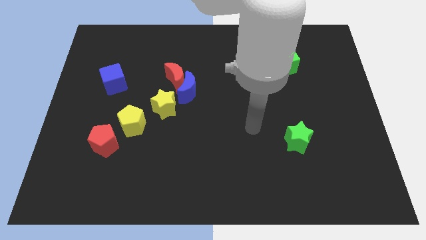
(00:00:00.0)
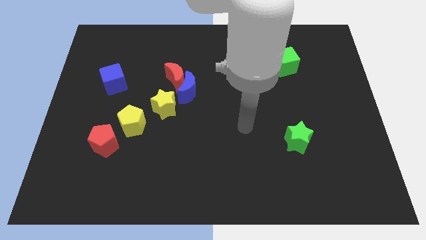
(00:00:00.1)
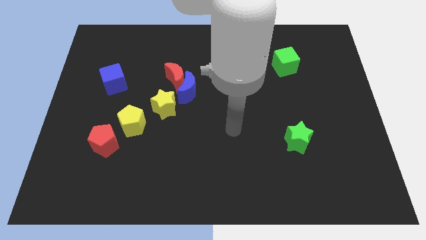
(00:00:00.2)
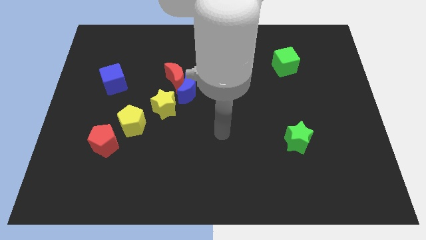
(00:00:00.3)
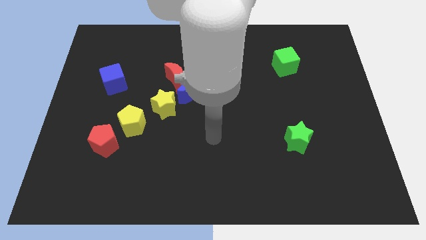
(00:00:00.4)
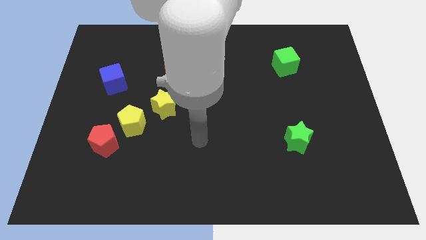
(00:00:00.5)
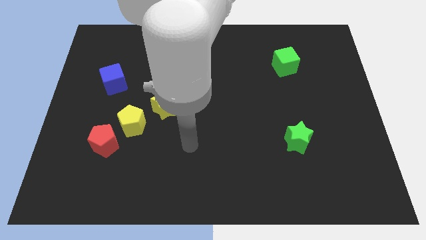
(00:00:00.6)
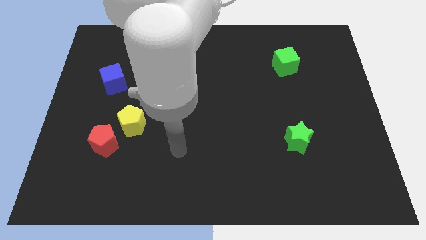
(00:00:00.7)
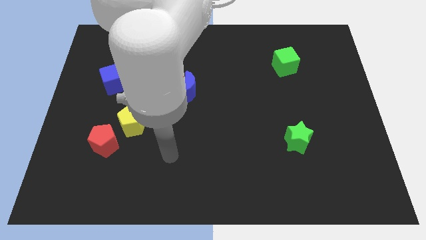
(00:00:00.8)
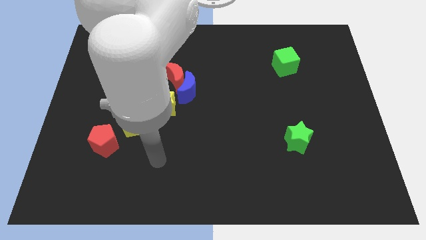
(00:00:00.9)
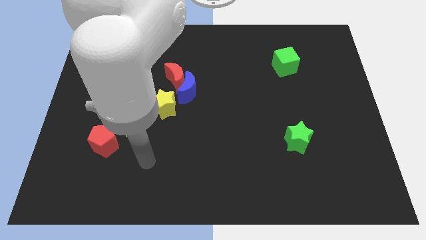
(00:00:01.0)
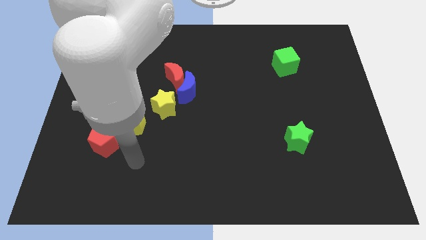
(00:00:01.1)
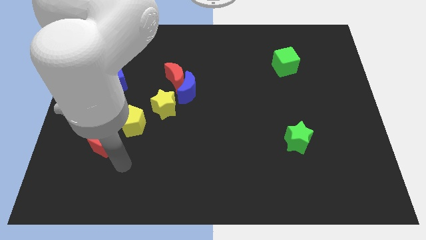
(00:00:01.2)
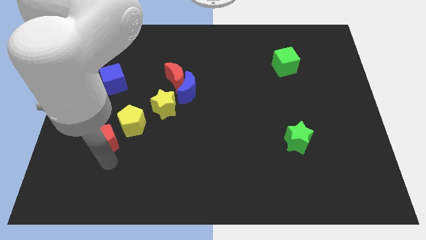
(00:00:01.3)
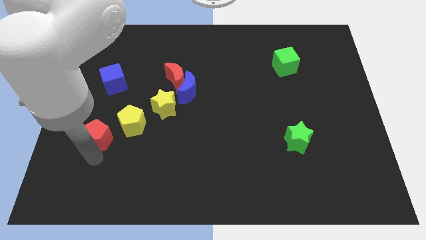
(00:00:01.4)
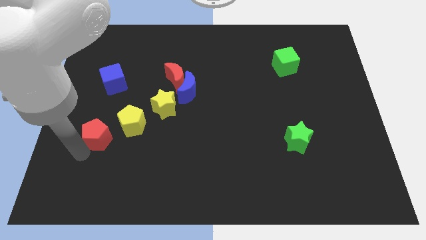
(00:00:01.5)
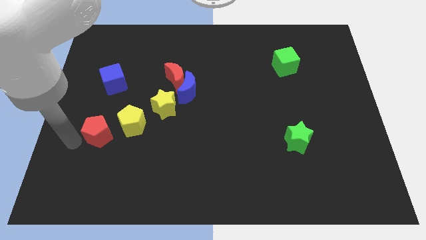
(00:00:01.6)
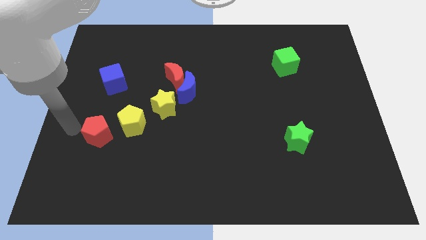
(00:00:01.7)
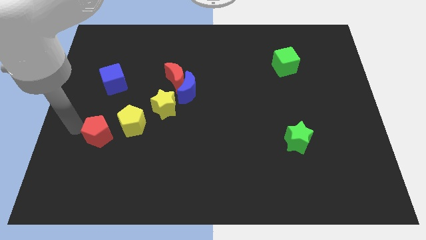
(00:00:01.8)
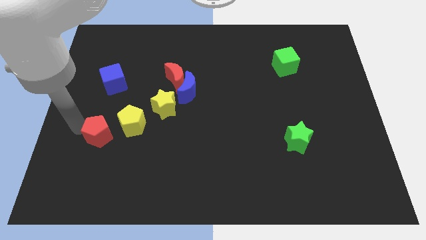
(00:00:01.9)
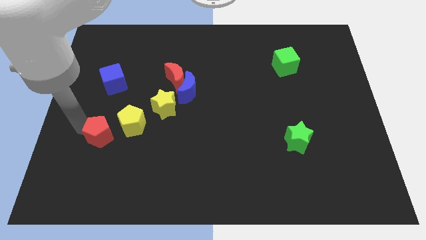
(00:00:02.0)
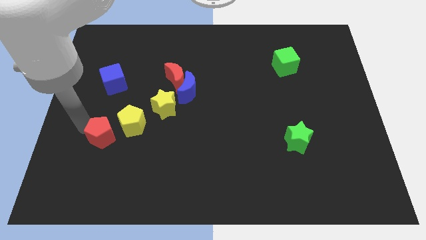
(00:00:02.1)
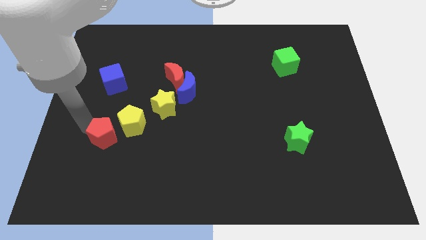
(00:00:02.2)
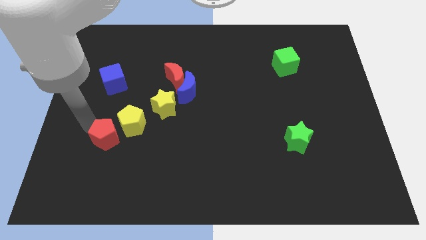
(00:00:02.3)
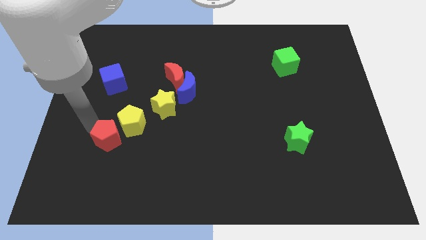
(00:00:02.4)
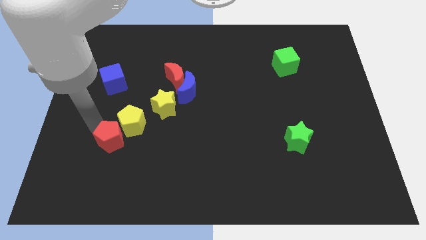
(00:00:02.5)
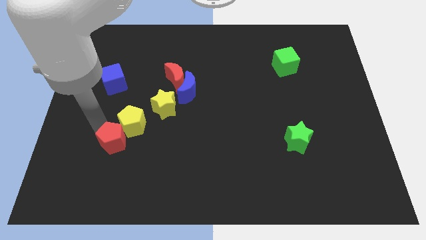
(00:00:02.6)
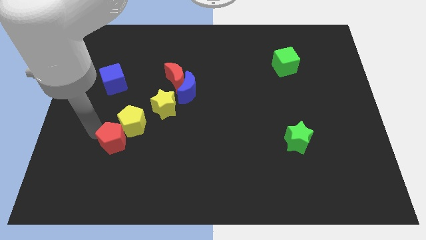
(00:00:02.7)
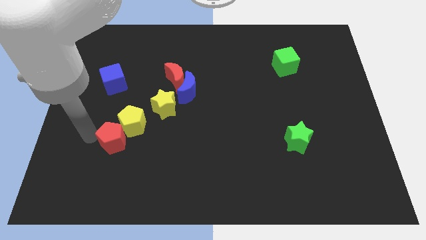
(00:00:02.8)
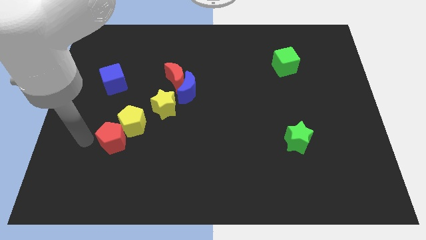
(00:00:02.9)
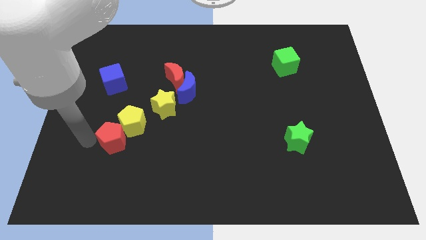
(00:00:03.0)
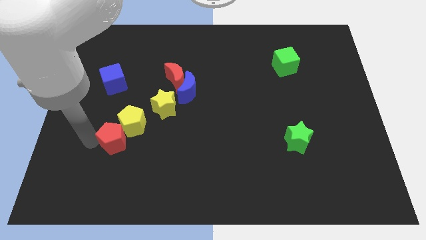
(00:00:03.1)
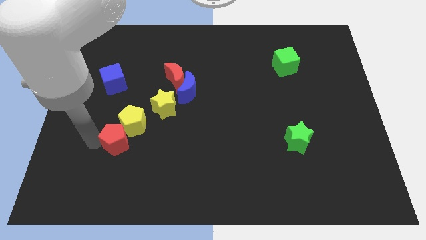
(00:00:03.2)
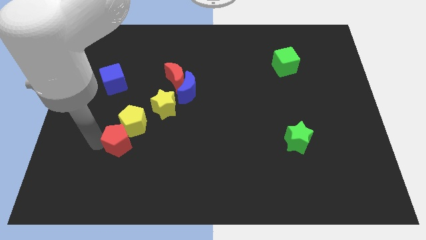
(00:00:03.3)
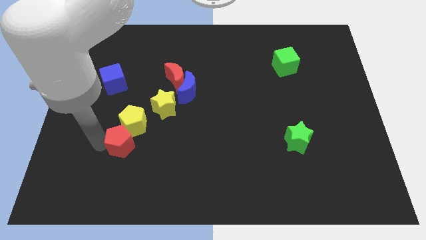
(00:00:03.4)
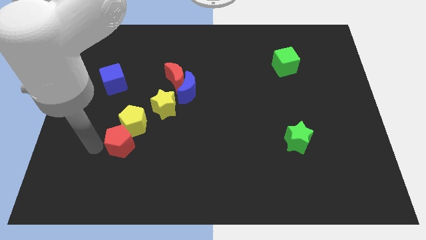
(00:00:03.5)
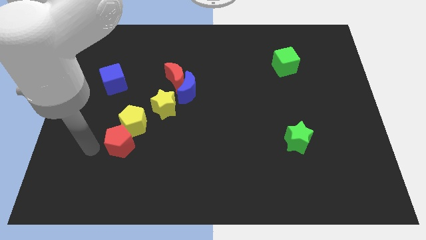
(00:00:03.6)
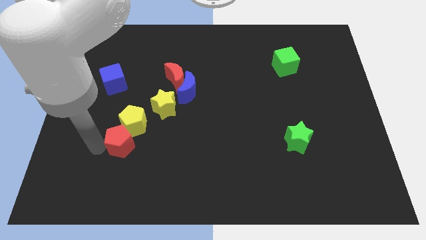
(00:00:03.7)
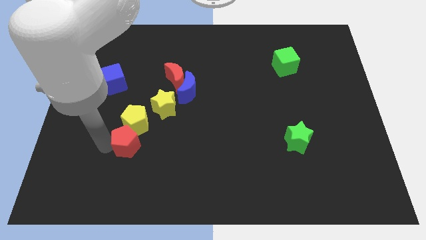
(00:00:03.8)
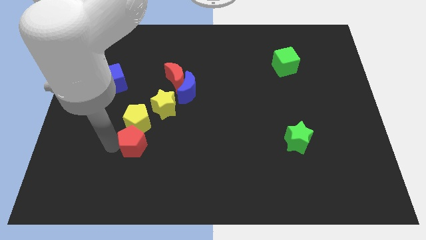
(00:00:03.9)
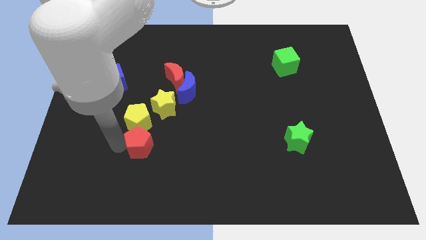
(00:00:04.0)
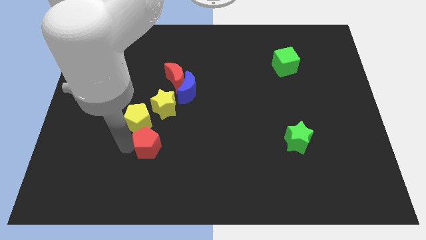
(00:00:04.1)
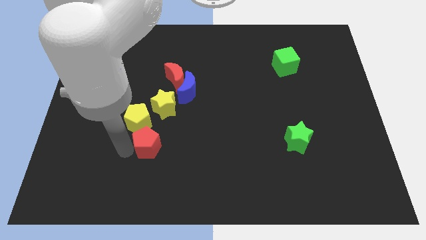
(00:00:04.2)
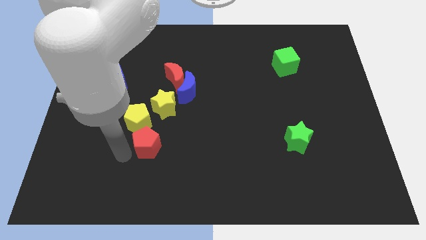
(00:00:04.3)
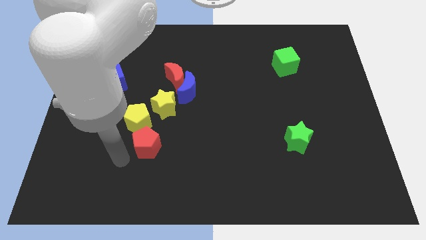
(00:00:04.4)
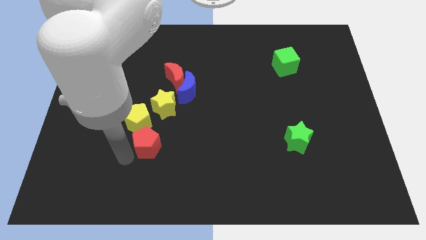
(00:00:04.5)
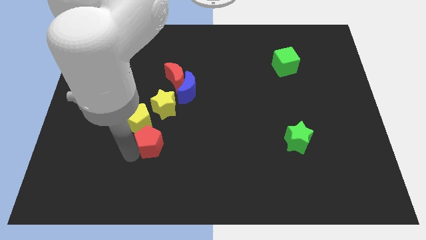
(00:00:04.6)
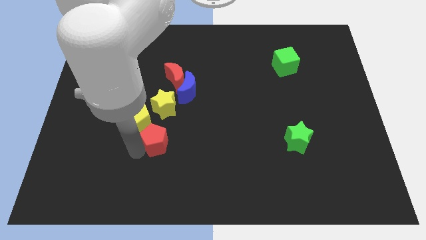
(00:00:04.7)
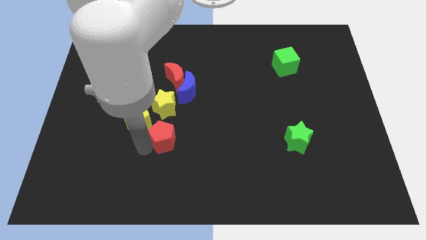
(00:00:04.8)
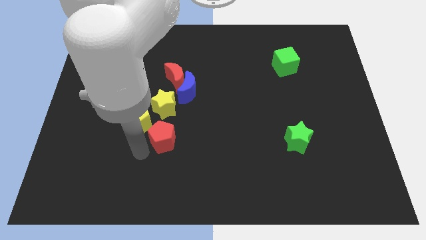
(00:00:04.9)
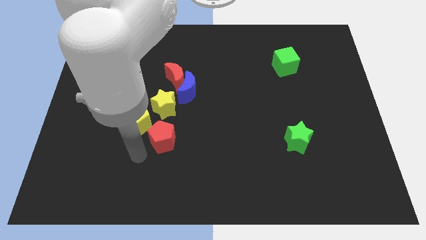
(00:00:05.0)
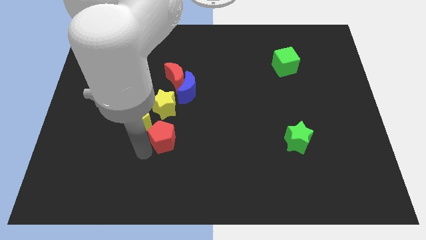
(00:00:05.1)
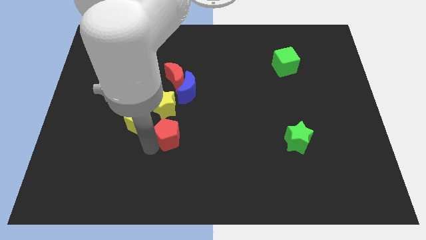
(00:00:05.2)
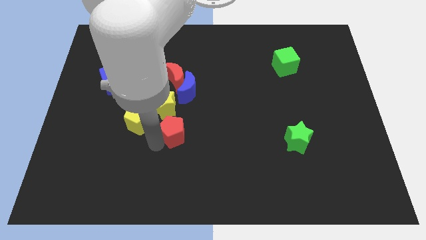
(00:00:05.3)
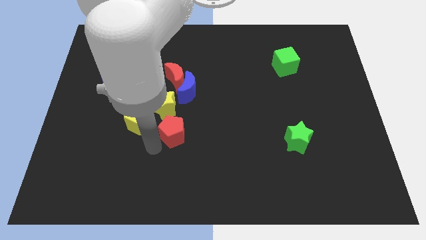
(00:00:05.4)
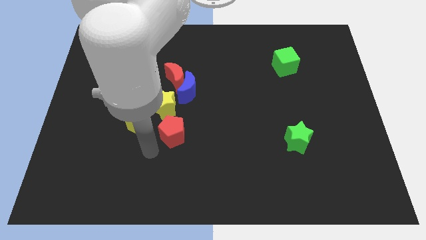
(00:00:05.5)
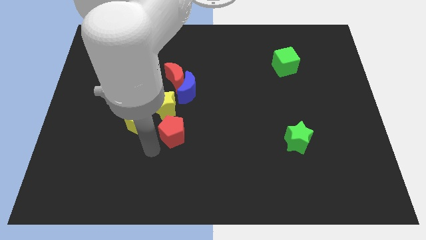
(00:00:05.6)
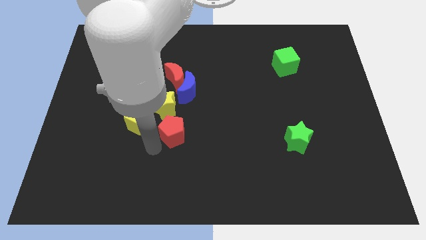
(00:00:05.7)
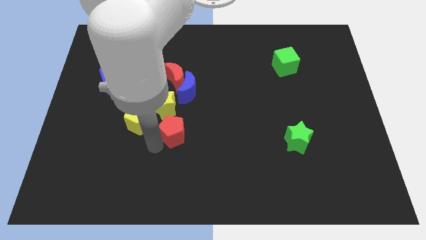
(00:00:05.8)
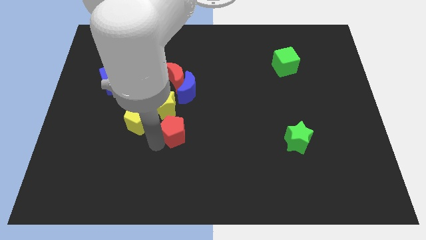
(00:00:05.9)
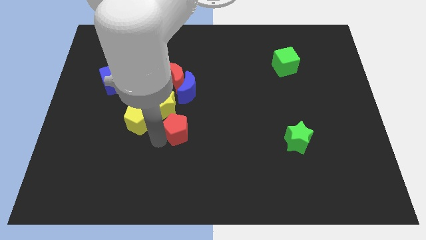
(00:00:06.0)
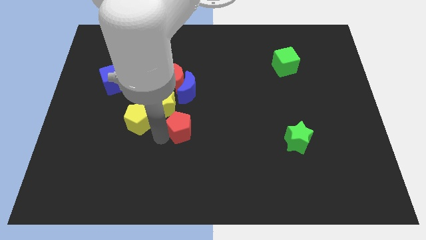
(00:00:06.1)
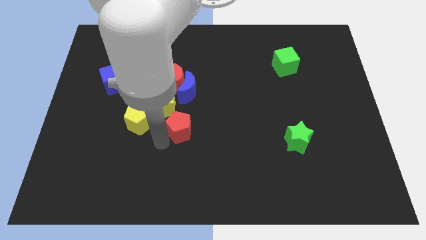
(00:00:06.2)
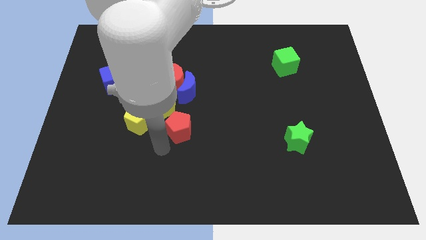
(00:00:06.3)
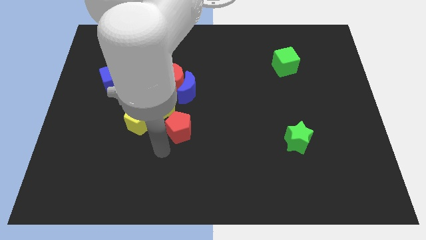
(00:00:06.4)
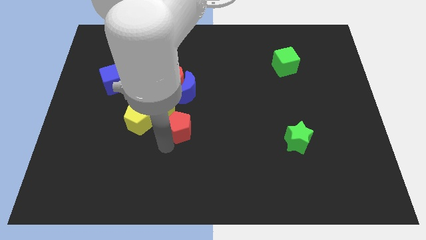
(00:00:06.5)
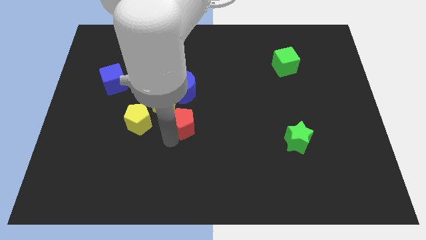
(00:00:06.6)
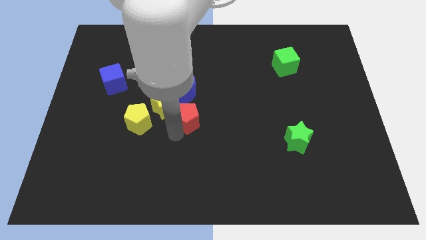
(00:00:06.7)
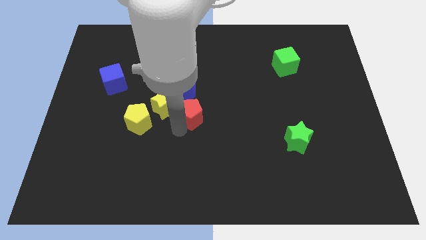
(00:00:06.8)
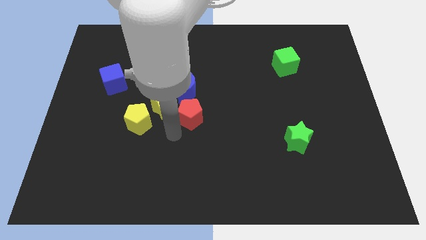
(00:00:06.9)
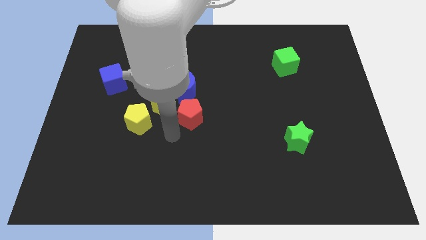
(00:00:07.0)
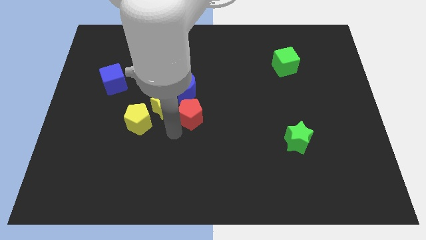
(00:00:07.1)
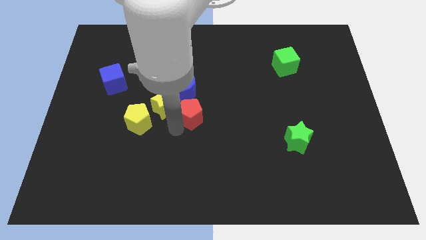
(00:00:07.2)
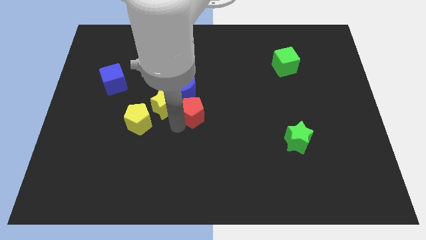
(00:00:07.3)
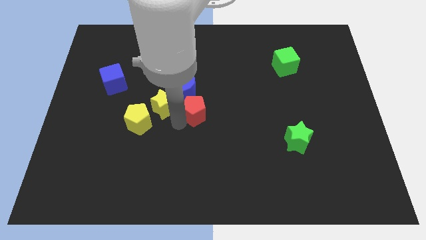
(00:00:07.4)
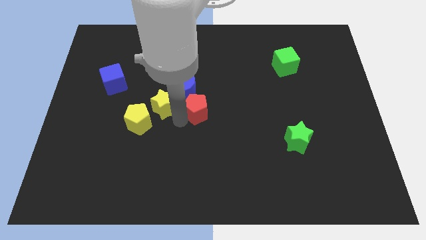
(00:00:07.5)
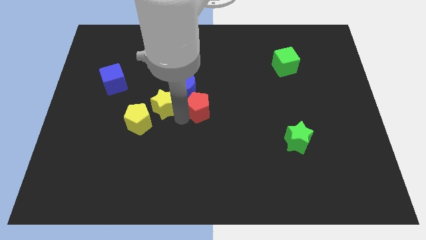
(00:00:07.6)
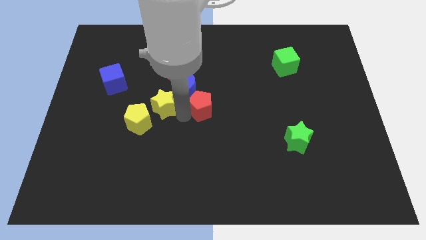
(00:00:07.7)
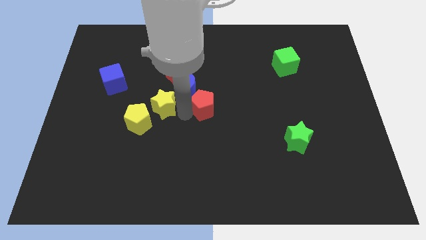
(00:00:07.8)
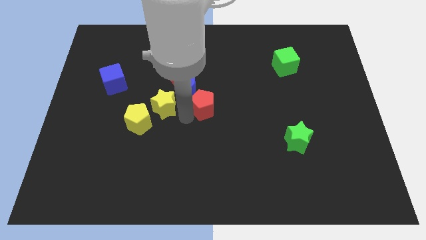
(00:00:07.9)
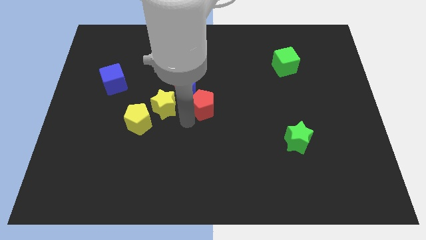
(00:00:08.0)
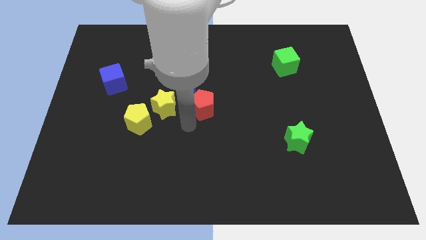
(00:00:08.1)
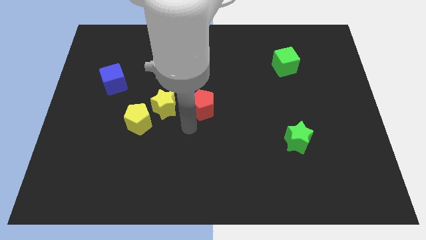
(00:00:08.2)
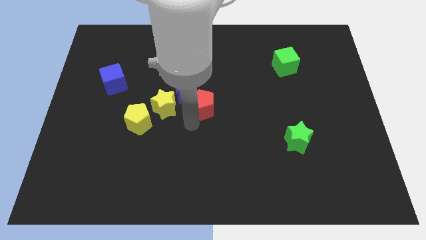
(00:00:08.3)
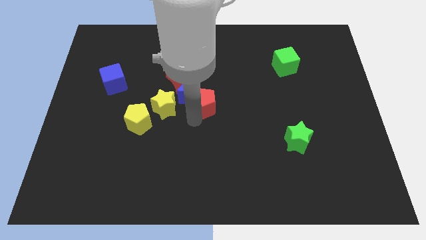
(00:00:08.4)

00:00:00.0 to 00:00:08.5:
slide the red pentagon diagonally upwards and right
